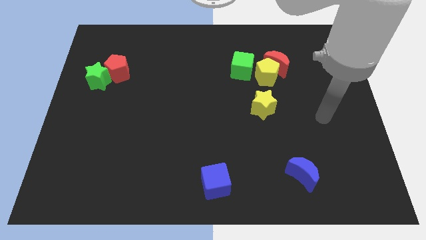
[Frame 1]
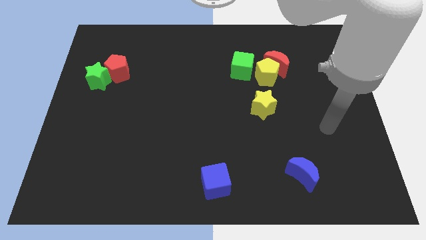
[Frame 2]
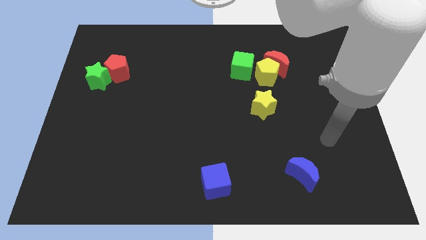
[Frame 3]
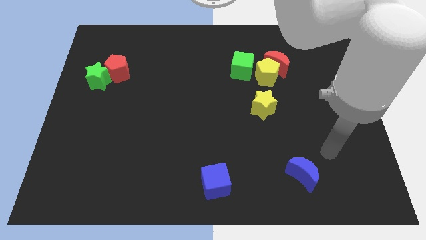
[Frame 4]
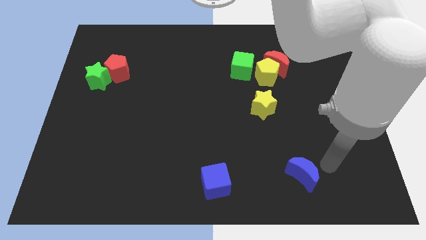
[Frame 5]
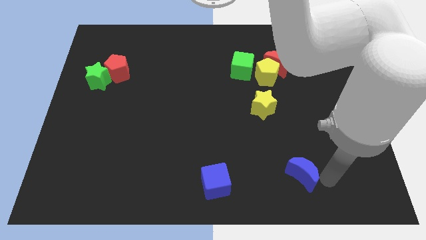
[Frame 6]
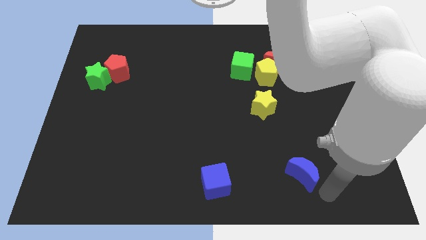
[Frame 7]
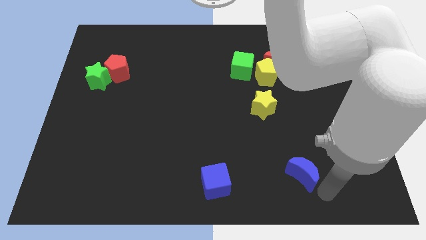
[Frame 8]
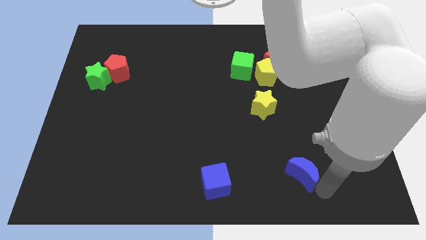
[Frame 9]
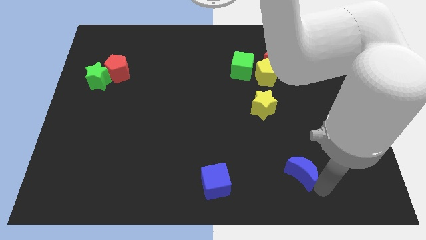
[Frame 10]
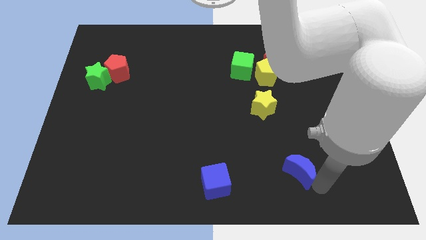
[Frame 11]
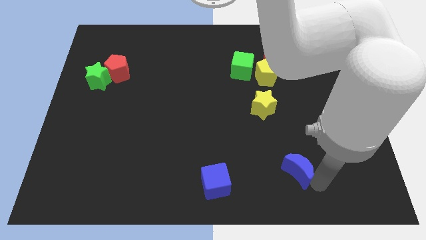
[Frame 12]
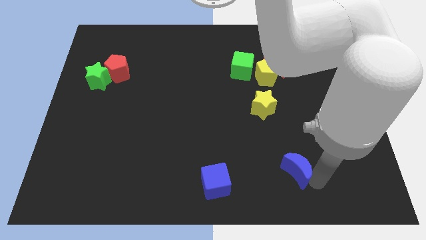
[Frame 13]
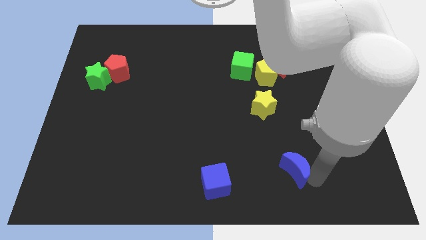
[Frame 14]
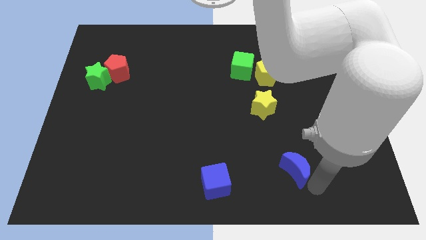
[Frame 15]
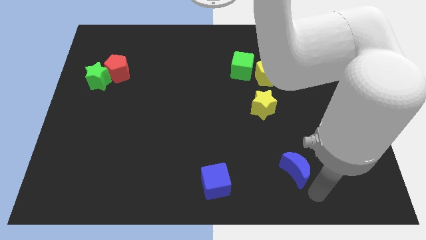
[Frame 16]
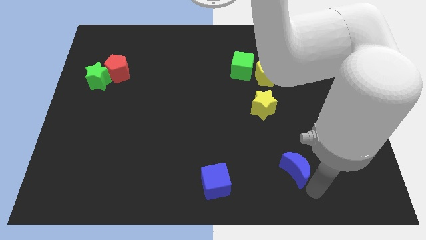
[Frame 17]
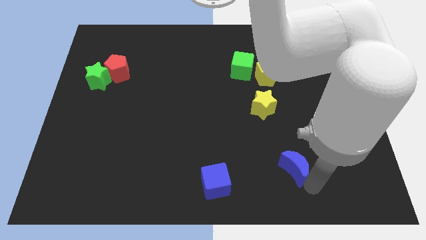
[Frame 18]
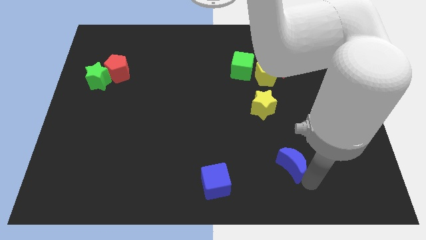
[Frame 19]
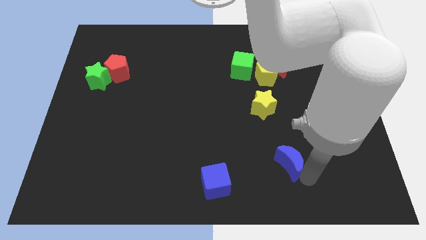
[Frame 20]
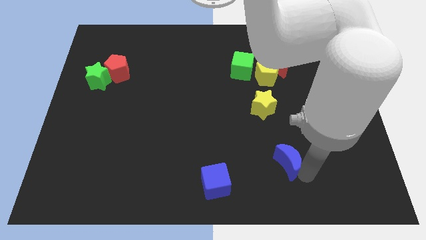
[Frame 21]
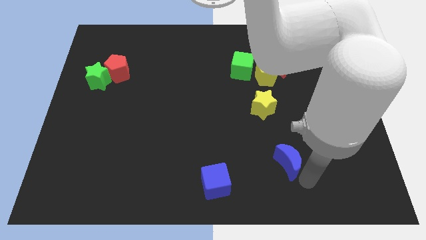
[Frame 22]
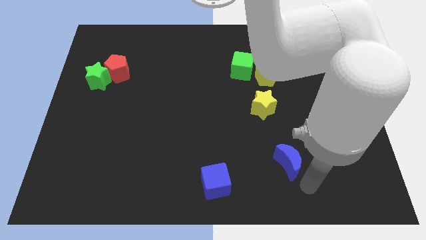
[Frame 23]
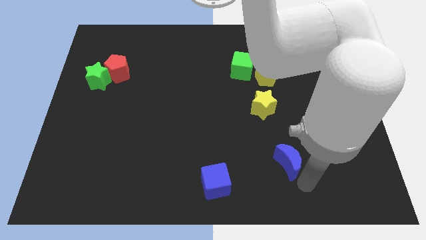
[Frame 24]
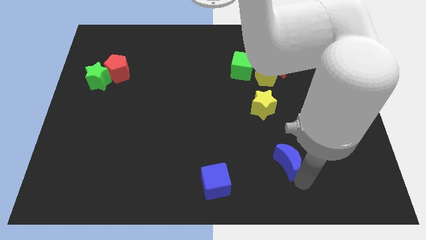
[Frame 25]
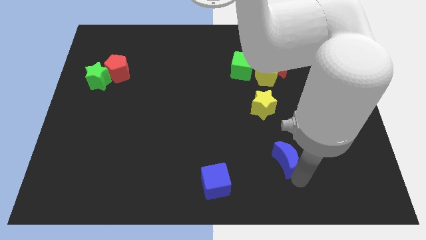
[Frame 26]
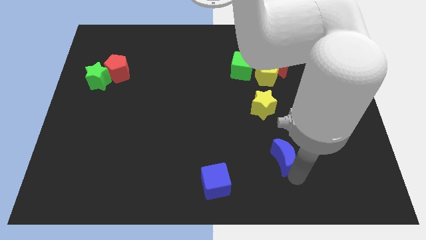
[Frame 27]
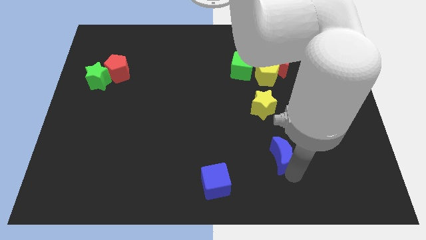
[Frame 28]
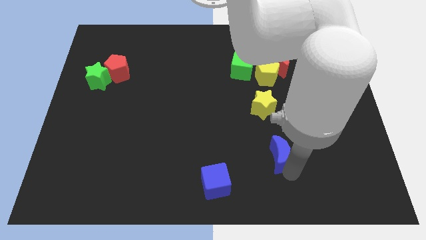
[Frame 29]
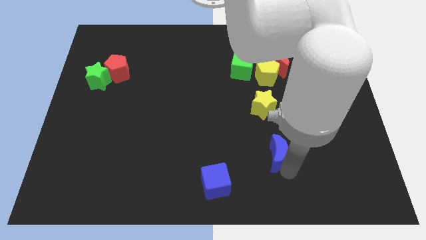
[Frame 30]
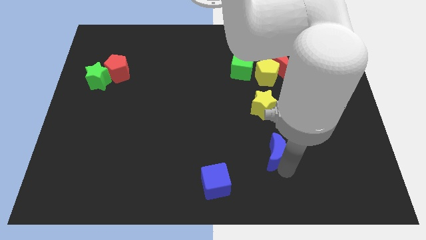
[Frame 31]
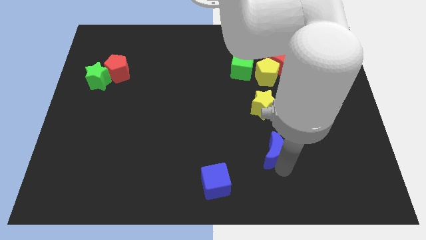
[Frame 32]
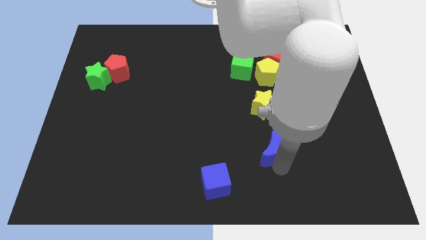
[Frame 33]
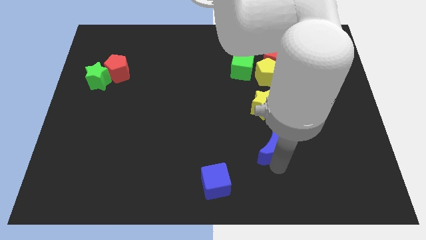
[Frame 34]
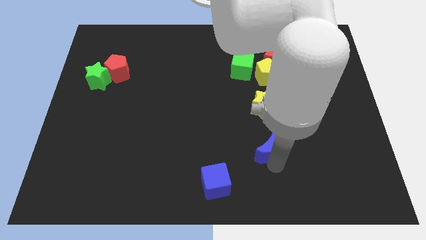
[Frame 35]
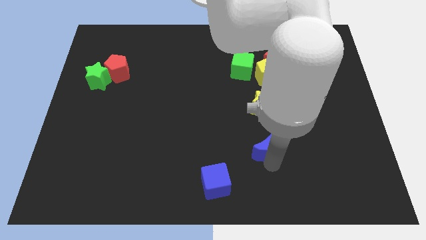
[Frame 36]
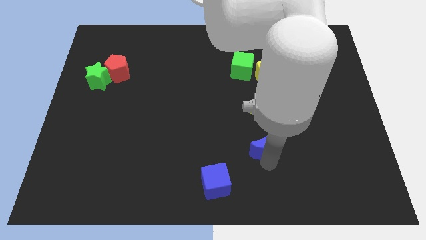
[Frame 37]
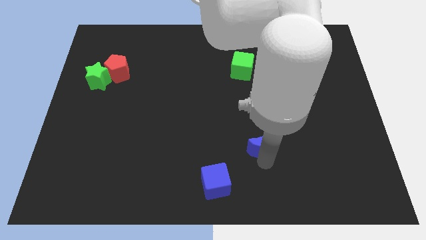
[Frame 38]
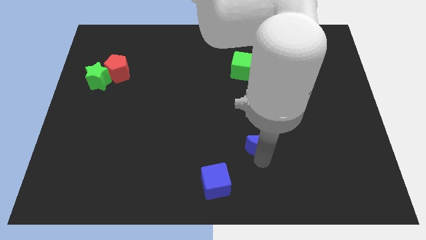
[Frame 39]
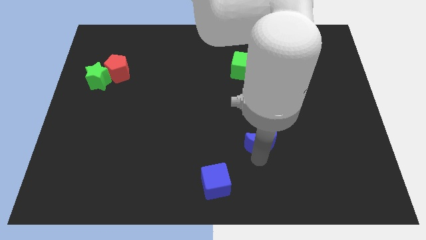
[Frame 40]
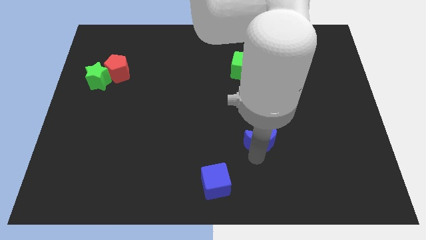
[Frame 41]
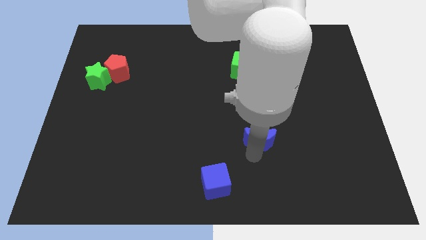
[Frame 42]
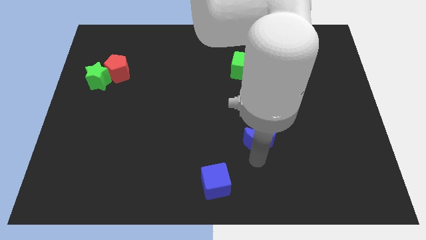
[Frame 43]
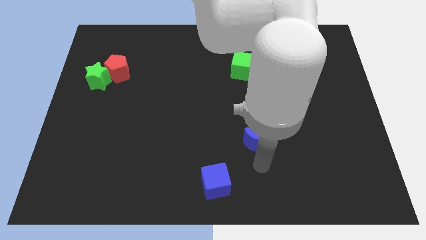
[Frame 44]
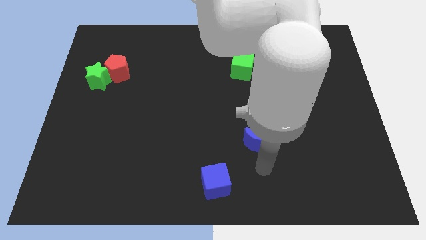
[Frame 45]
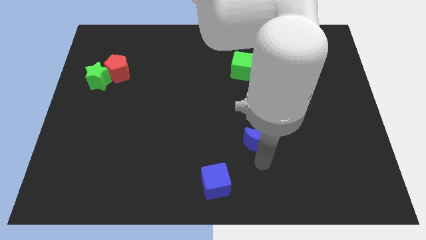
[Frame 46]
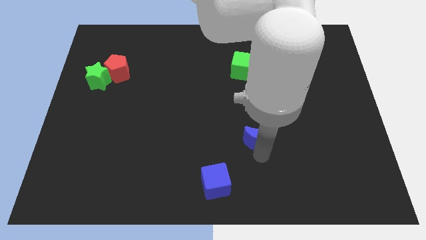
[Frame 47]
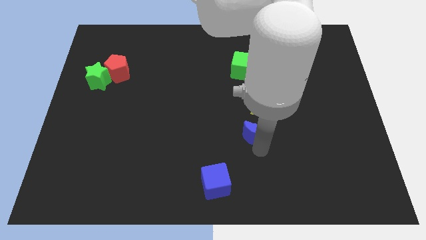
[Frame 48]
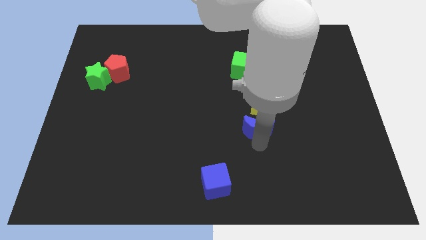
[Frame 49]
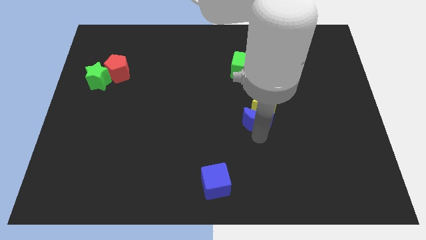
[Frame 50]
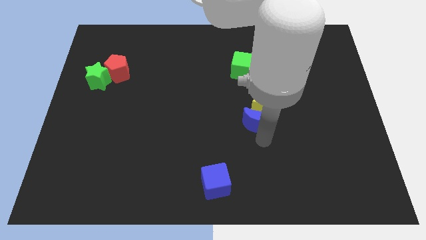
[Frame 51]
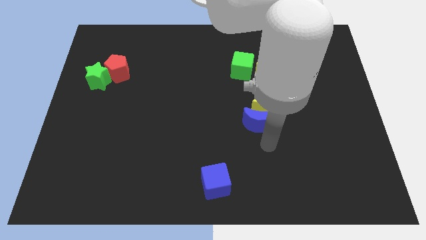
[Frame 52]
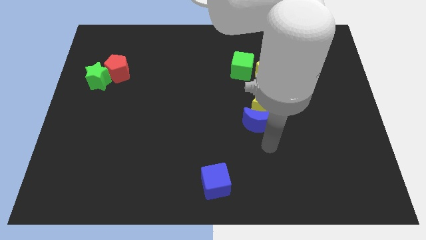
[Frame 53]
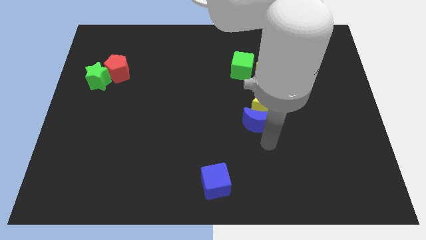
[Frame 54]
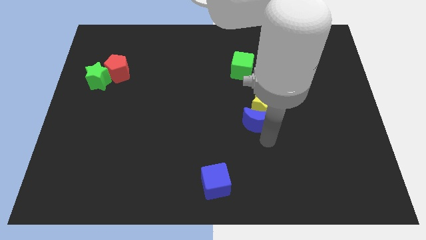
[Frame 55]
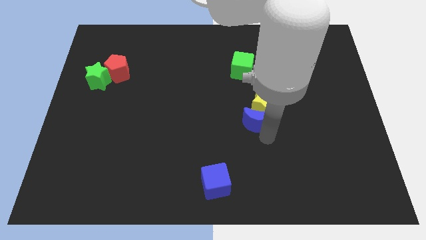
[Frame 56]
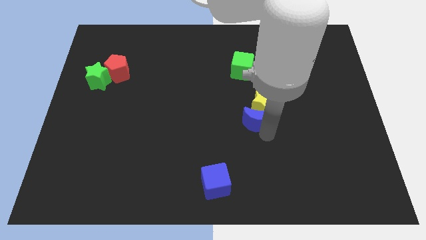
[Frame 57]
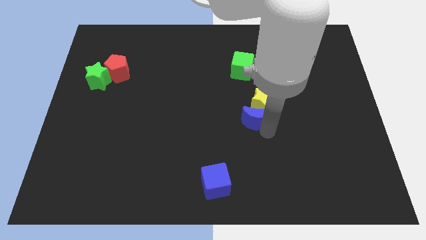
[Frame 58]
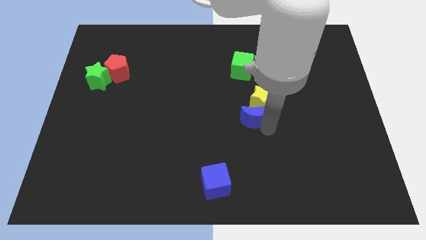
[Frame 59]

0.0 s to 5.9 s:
push the blue moon below the green cube

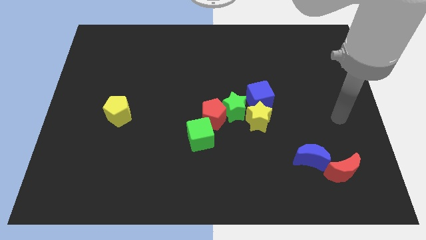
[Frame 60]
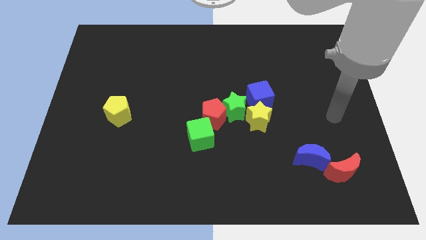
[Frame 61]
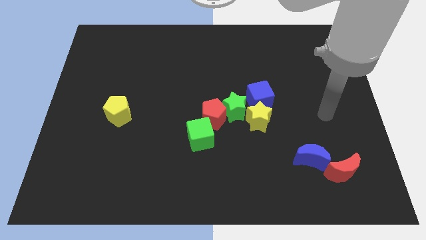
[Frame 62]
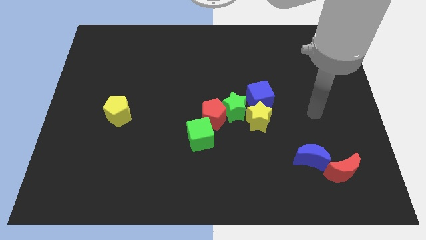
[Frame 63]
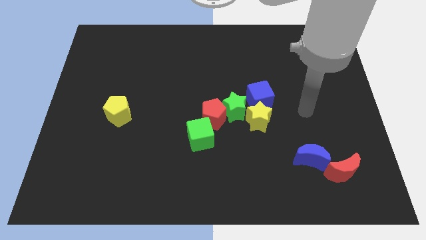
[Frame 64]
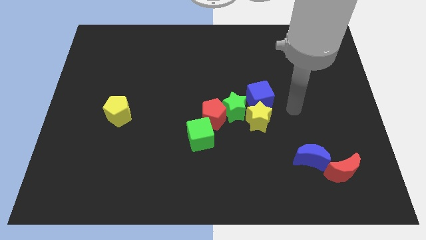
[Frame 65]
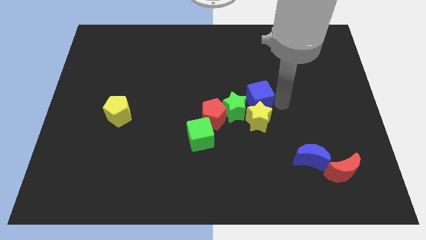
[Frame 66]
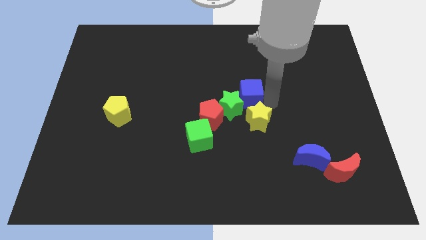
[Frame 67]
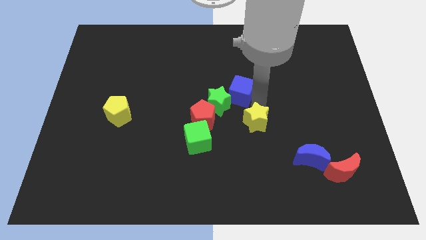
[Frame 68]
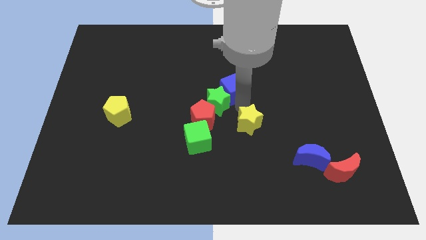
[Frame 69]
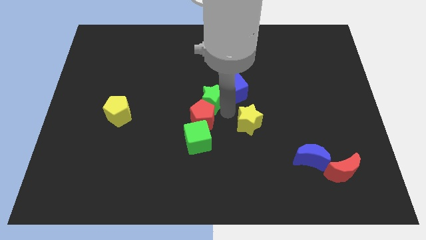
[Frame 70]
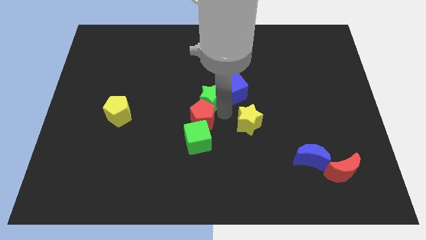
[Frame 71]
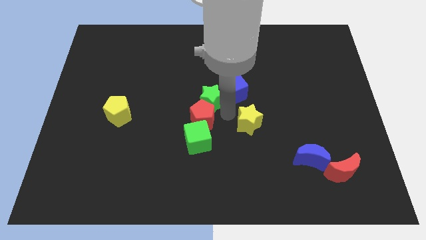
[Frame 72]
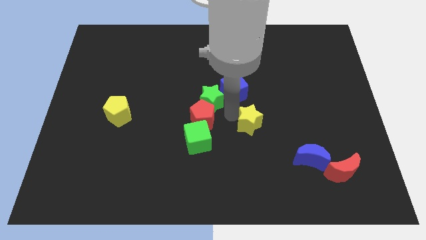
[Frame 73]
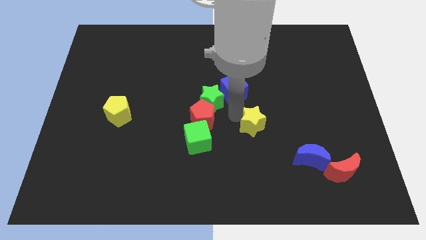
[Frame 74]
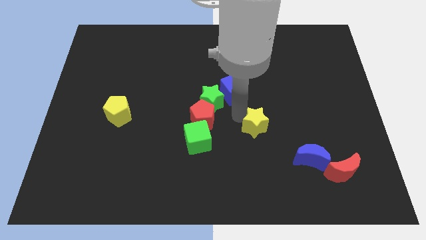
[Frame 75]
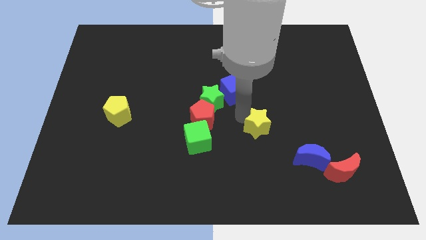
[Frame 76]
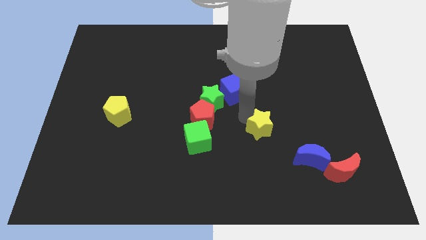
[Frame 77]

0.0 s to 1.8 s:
move the yellow star to the top left of the blue moon
